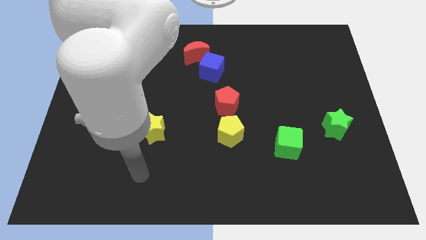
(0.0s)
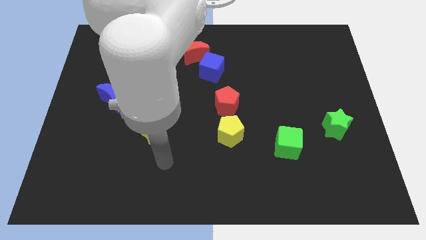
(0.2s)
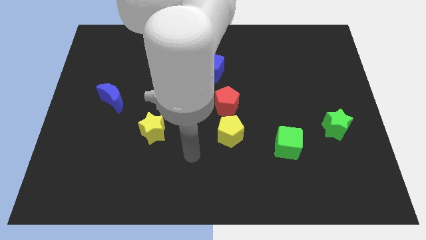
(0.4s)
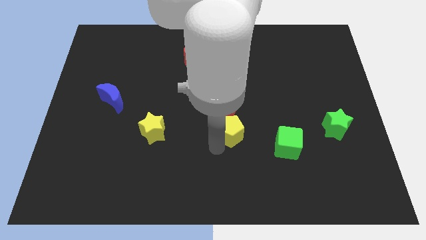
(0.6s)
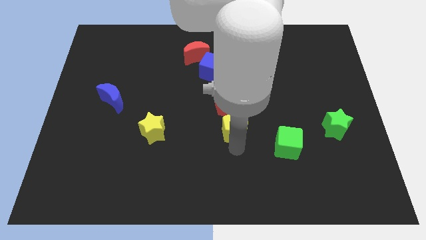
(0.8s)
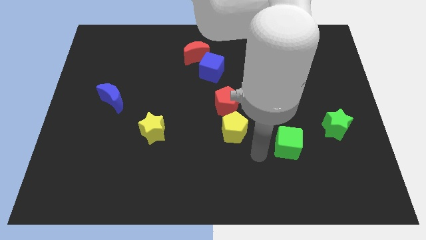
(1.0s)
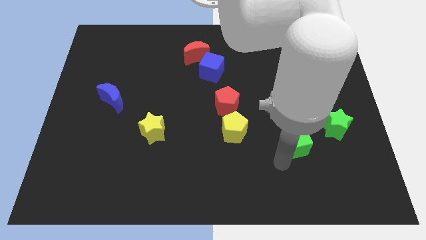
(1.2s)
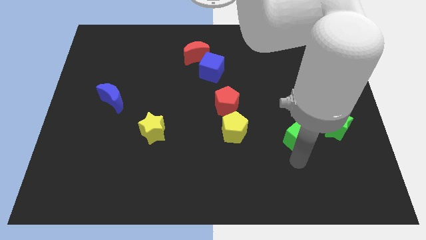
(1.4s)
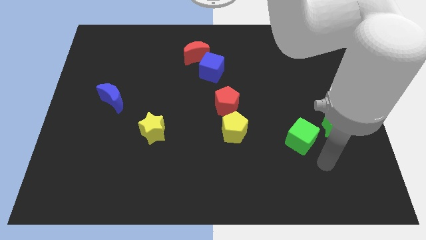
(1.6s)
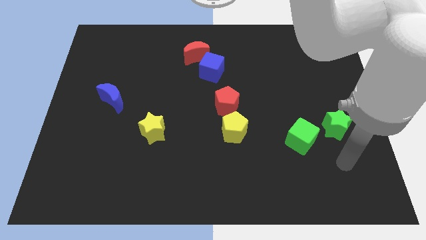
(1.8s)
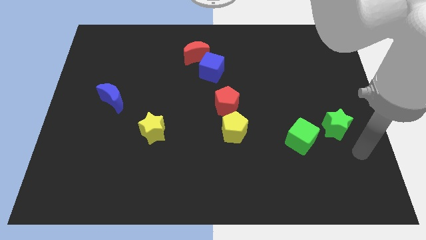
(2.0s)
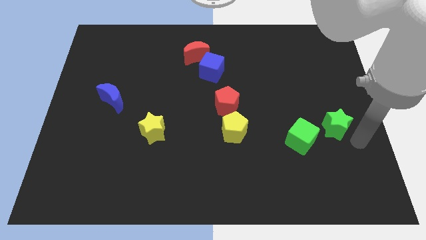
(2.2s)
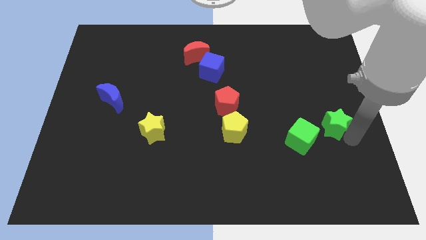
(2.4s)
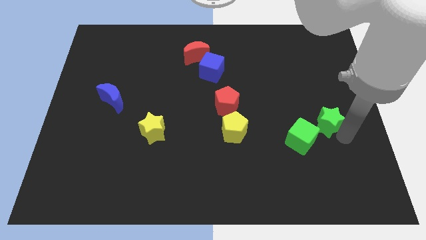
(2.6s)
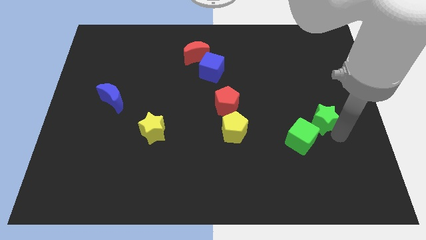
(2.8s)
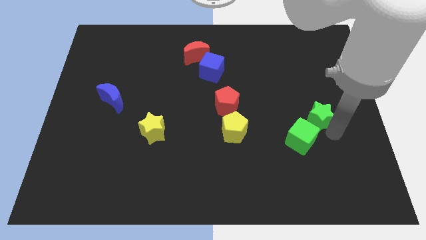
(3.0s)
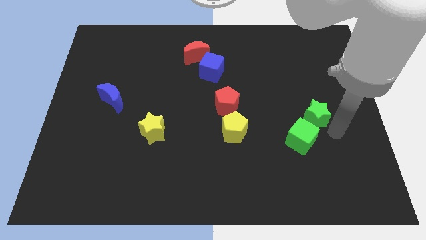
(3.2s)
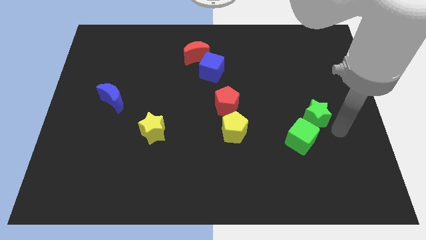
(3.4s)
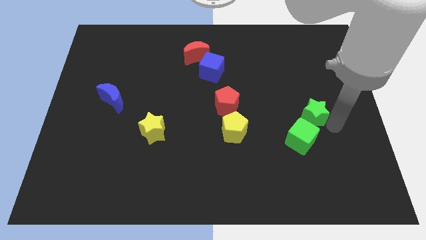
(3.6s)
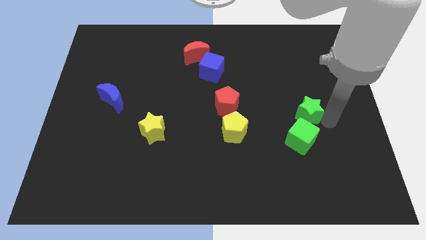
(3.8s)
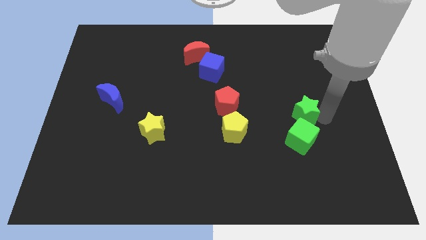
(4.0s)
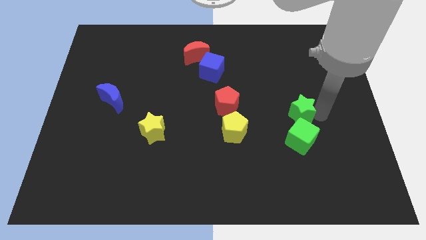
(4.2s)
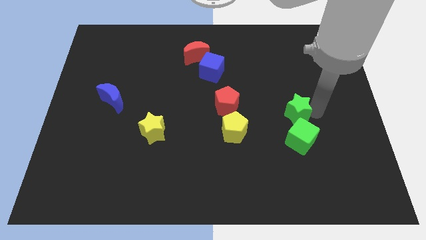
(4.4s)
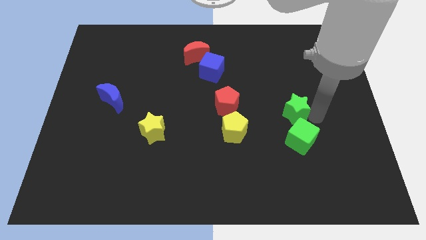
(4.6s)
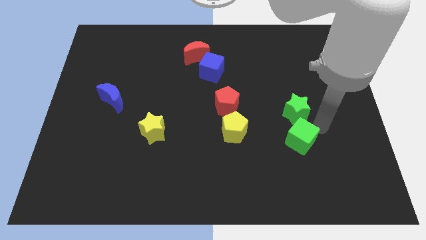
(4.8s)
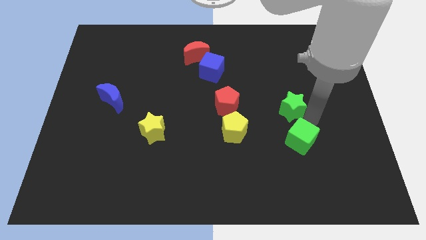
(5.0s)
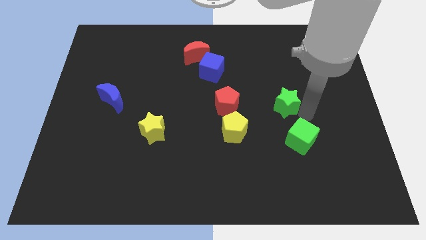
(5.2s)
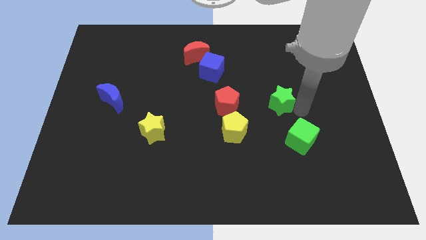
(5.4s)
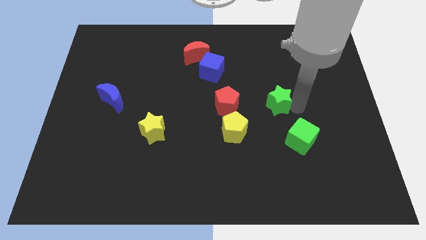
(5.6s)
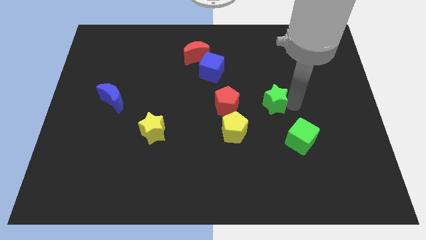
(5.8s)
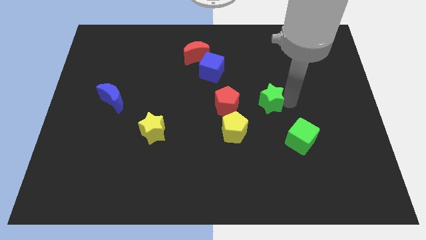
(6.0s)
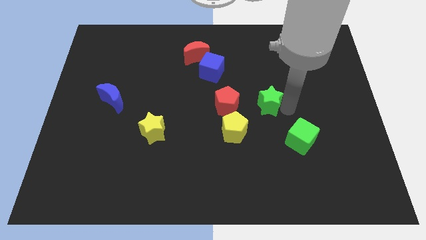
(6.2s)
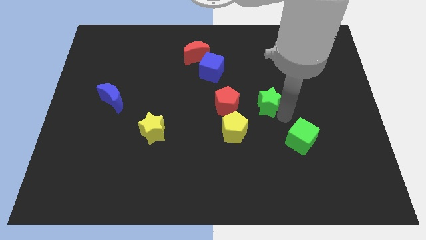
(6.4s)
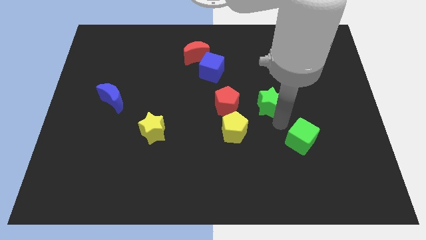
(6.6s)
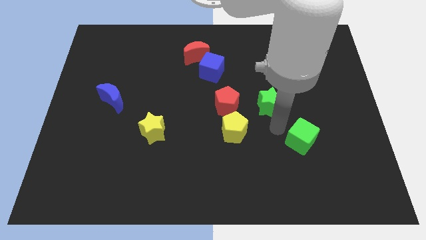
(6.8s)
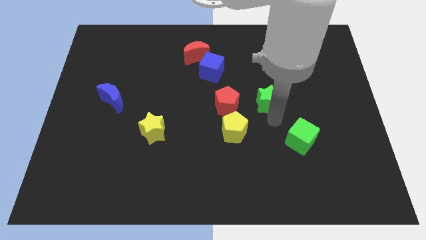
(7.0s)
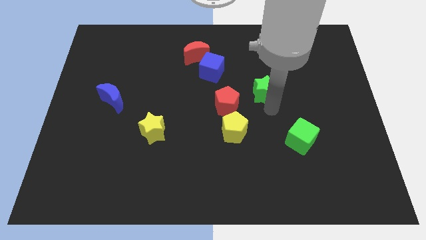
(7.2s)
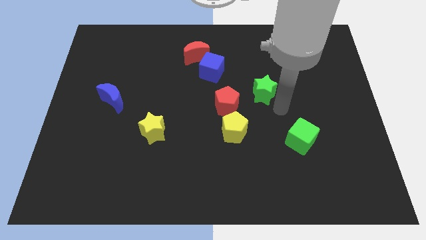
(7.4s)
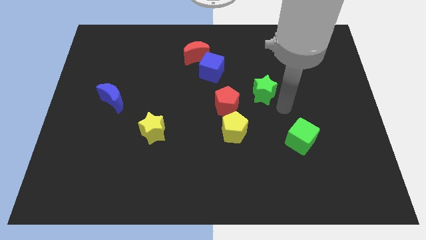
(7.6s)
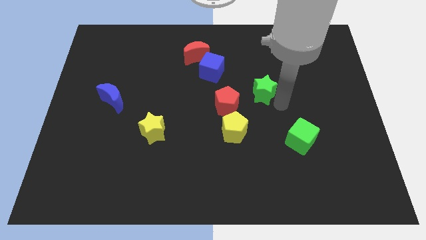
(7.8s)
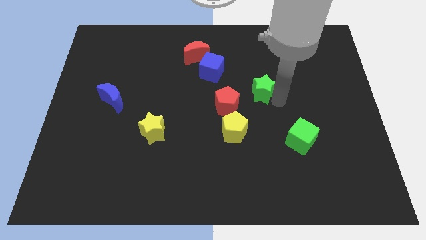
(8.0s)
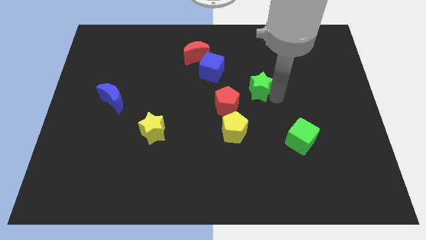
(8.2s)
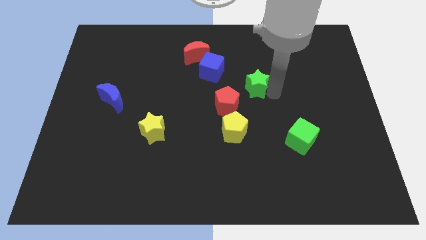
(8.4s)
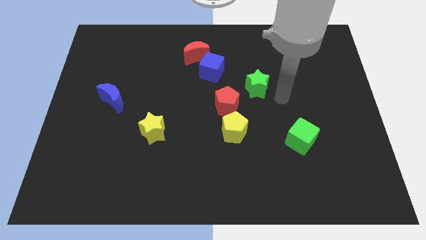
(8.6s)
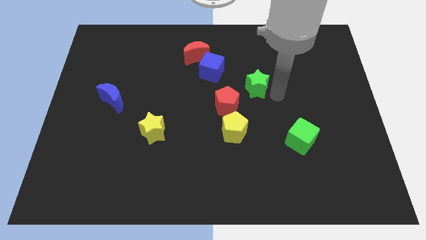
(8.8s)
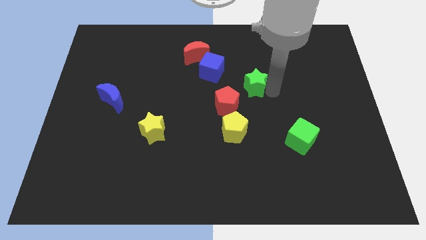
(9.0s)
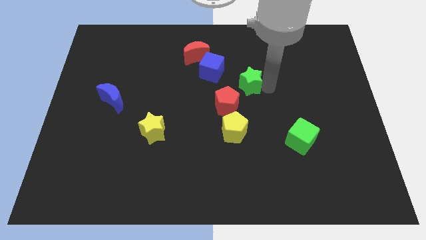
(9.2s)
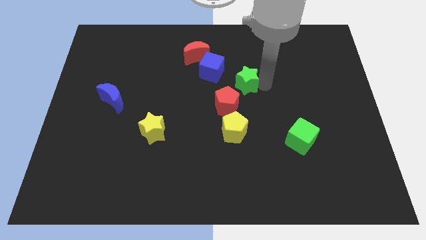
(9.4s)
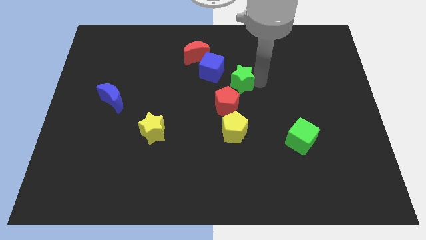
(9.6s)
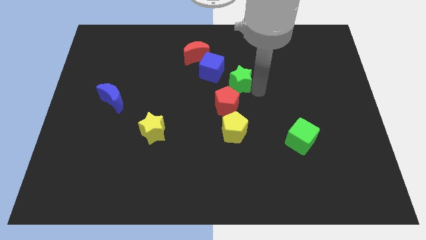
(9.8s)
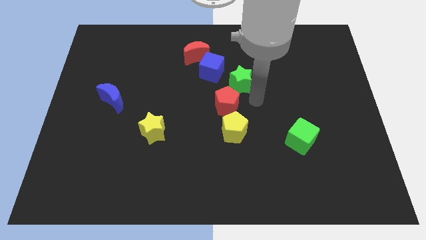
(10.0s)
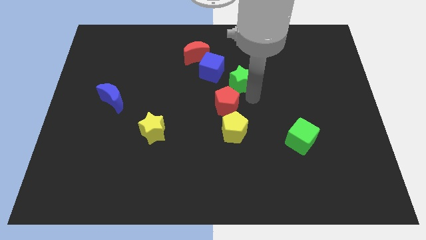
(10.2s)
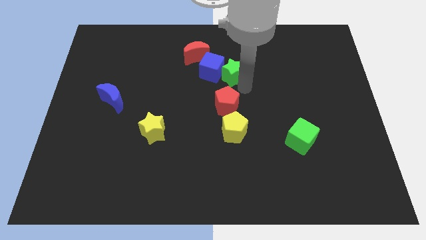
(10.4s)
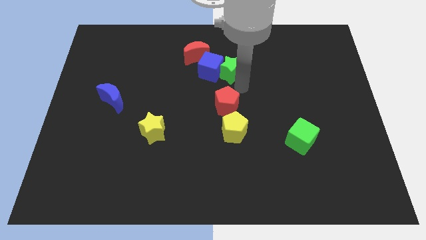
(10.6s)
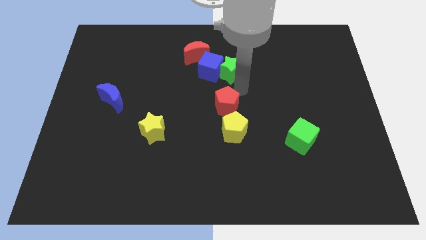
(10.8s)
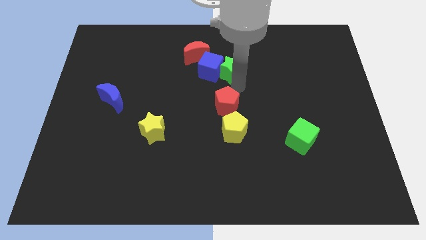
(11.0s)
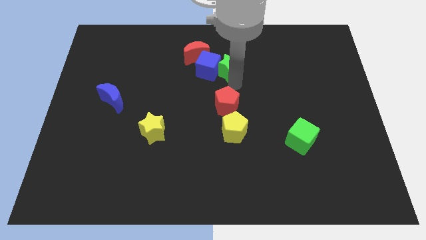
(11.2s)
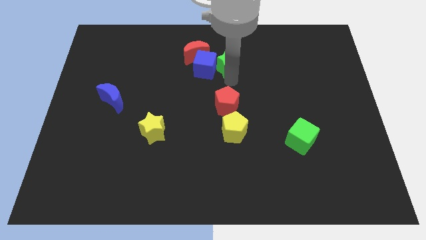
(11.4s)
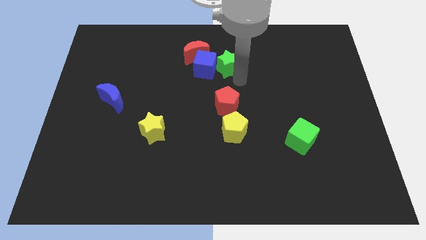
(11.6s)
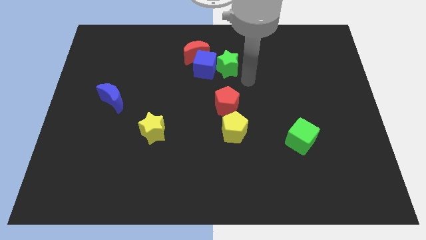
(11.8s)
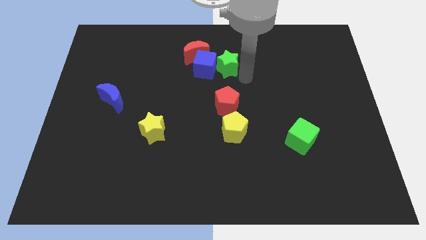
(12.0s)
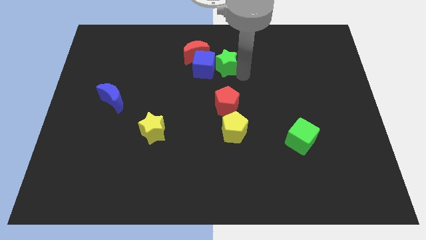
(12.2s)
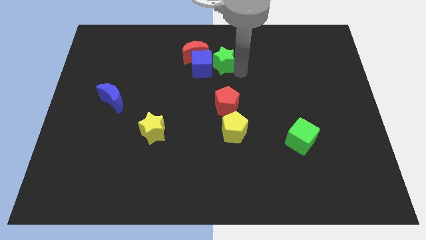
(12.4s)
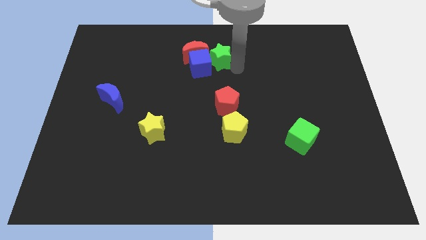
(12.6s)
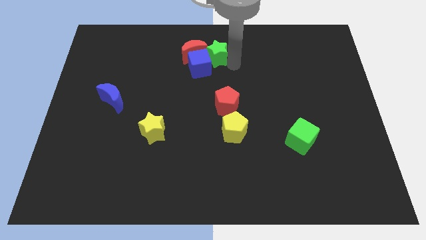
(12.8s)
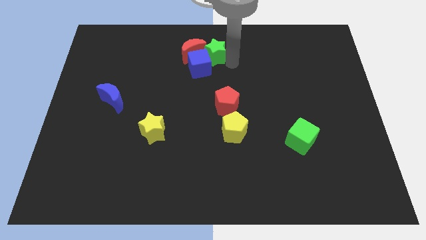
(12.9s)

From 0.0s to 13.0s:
push the green star to the red moon

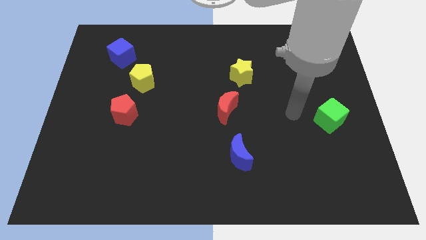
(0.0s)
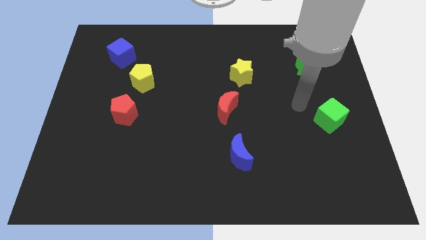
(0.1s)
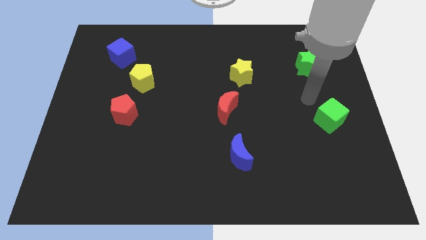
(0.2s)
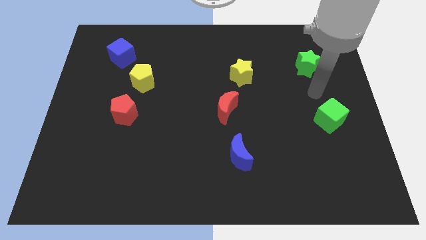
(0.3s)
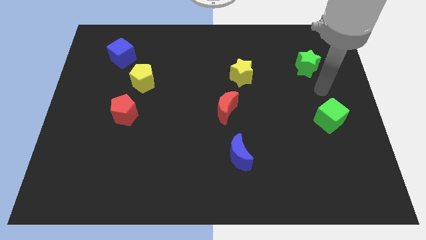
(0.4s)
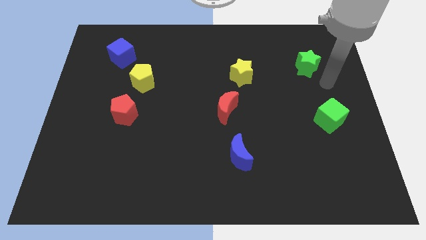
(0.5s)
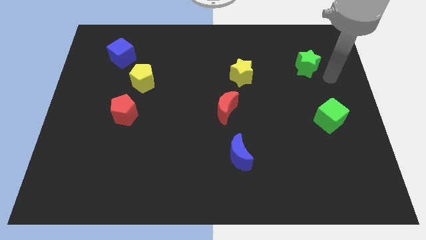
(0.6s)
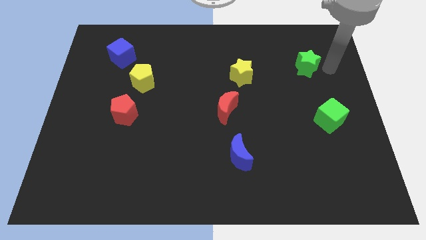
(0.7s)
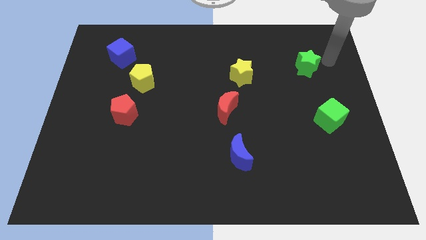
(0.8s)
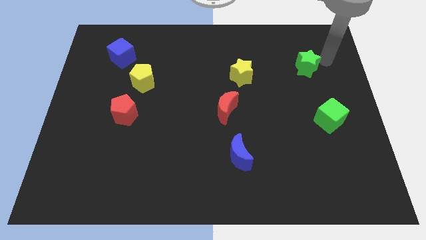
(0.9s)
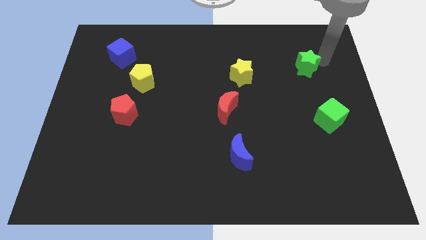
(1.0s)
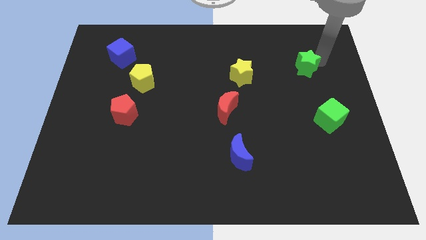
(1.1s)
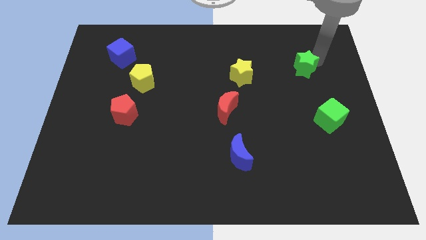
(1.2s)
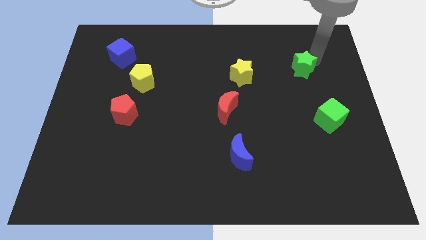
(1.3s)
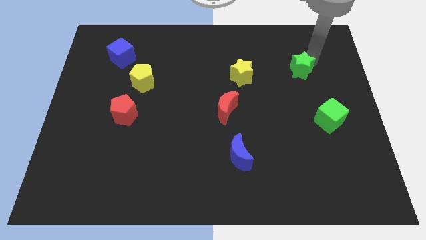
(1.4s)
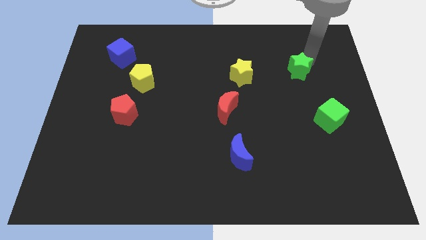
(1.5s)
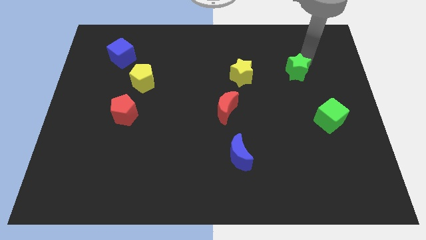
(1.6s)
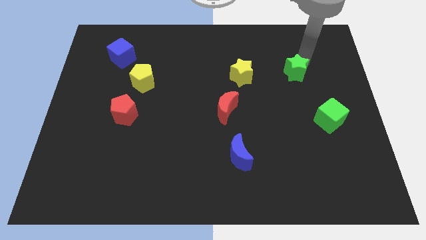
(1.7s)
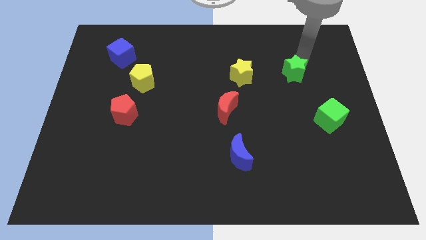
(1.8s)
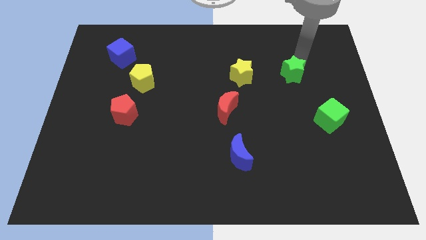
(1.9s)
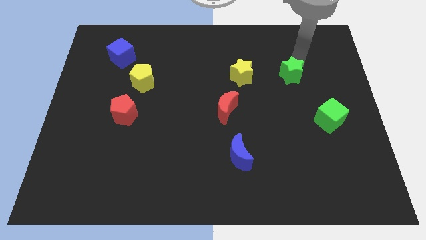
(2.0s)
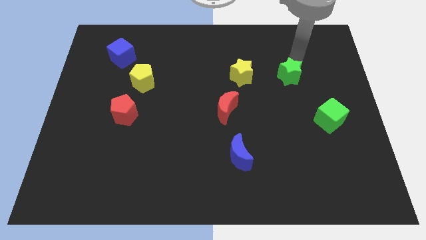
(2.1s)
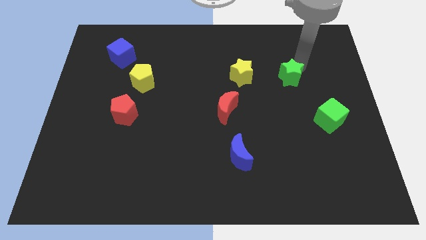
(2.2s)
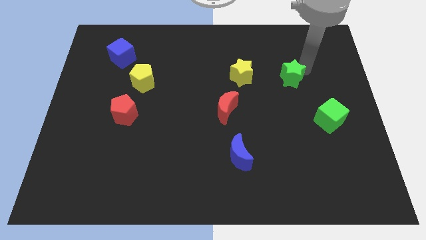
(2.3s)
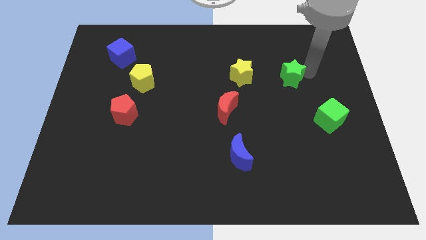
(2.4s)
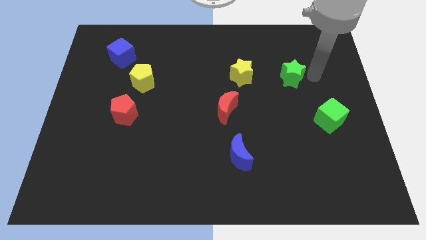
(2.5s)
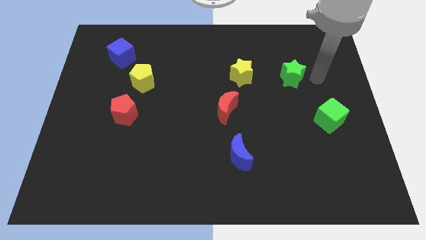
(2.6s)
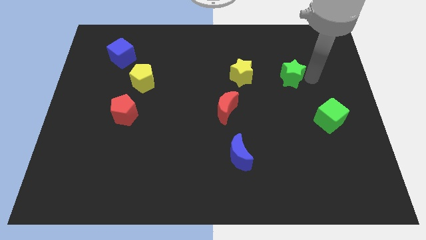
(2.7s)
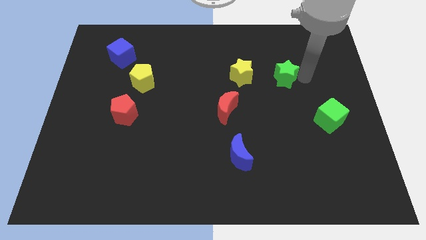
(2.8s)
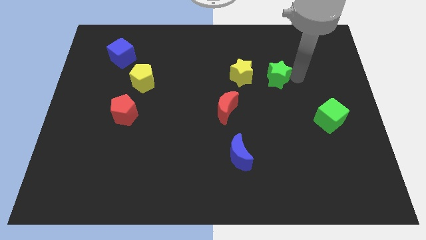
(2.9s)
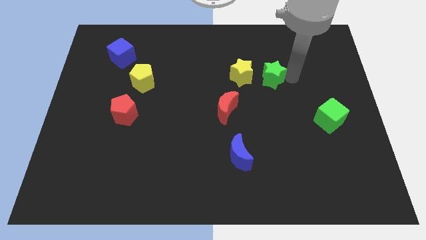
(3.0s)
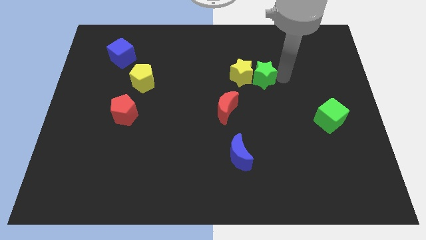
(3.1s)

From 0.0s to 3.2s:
move the green star next to the yellow star
